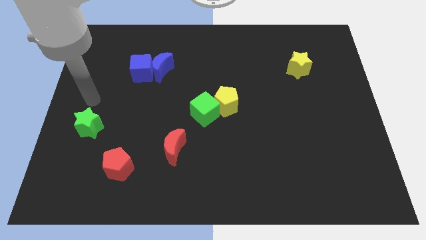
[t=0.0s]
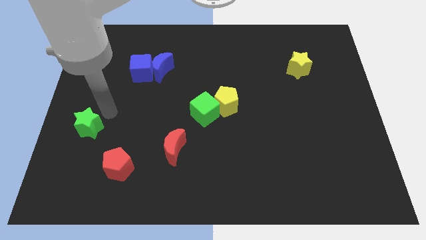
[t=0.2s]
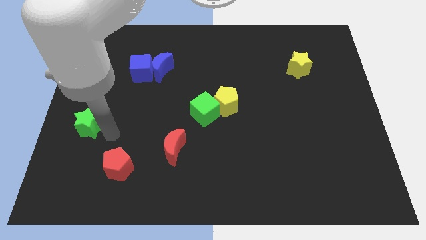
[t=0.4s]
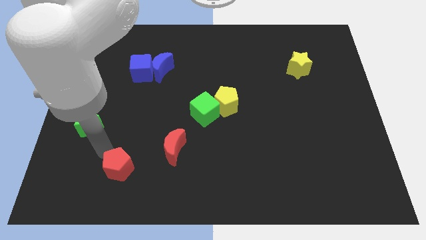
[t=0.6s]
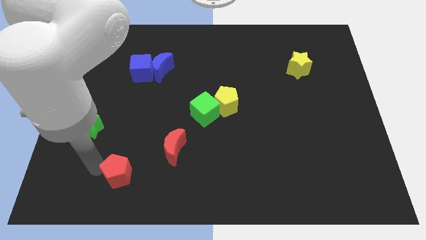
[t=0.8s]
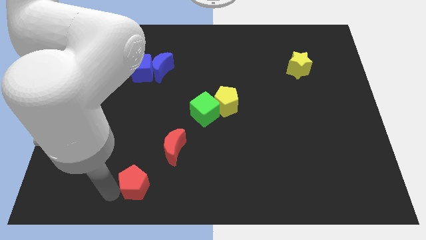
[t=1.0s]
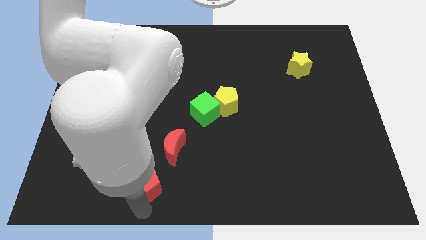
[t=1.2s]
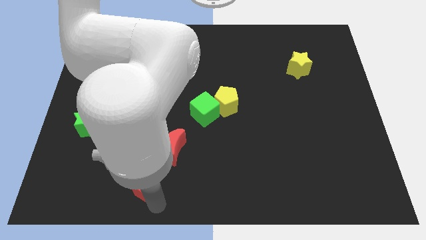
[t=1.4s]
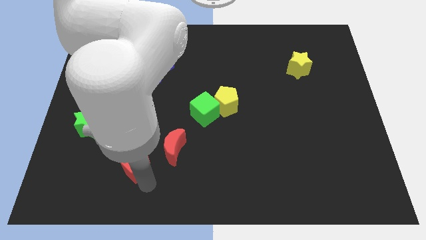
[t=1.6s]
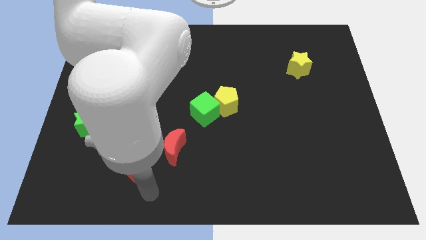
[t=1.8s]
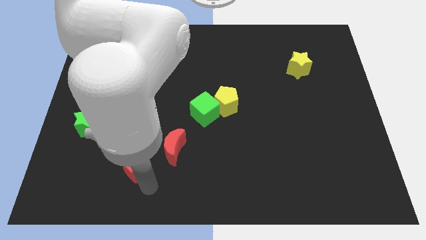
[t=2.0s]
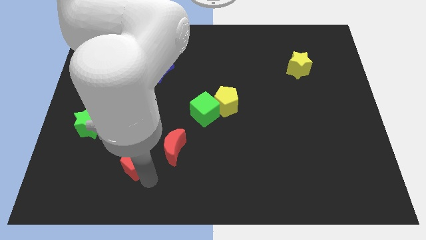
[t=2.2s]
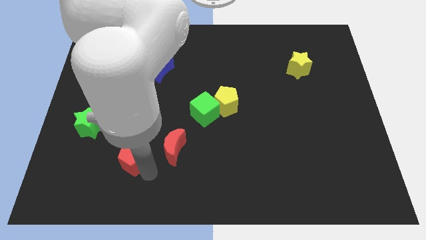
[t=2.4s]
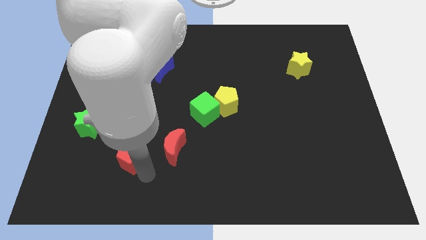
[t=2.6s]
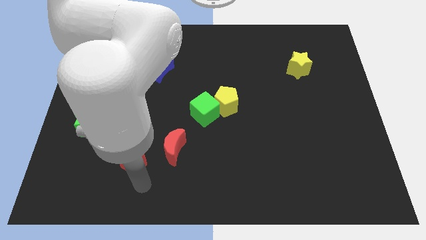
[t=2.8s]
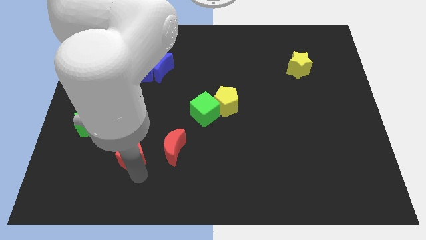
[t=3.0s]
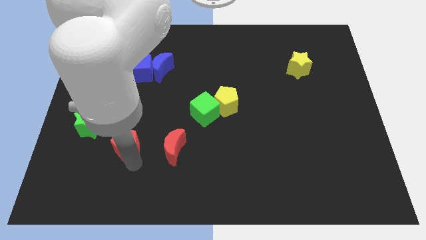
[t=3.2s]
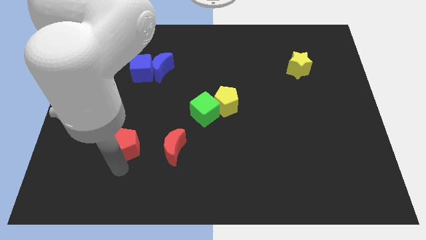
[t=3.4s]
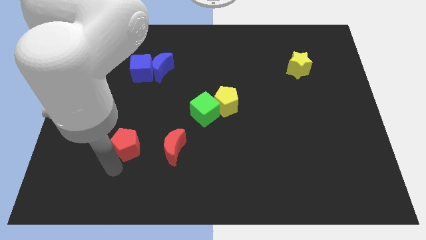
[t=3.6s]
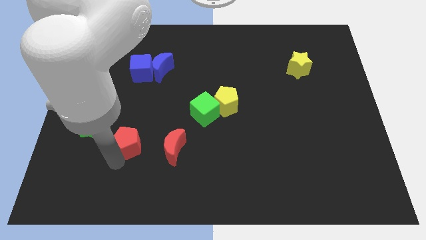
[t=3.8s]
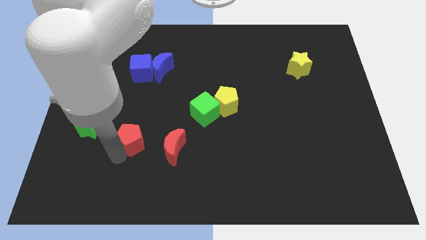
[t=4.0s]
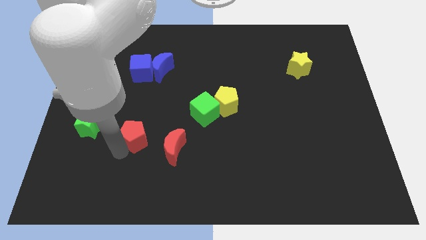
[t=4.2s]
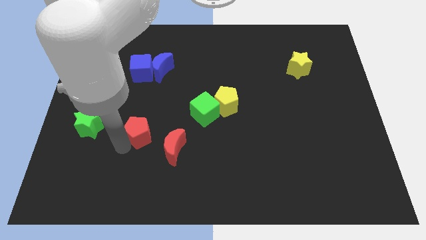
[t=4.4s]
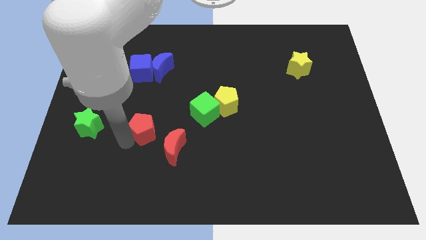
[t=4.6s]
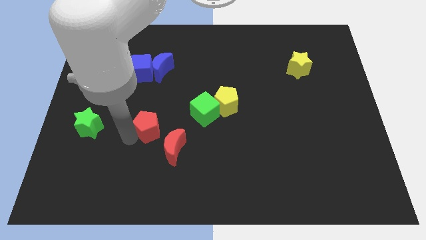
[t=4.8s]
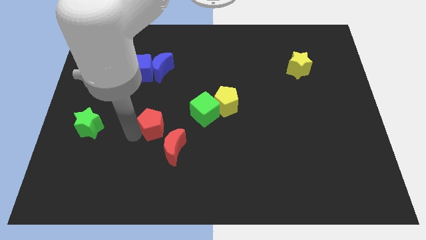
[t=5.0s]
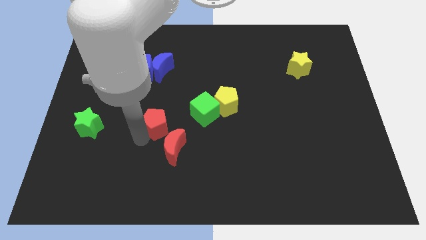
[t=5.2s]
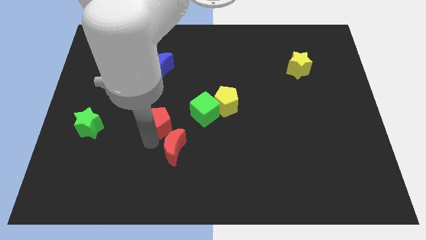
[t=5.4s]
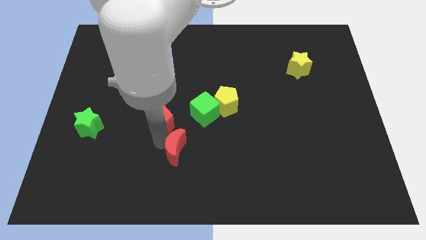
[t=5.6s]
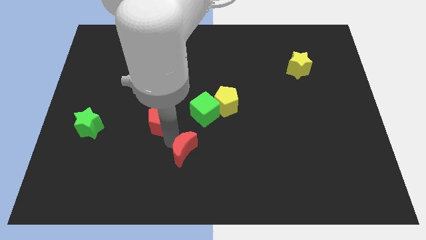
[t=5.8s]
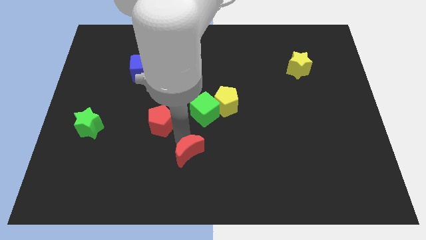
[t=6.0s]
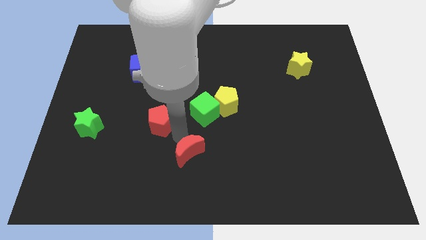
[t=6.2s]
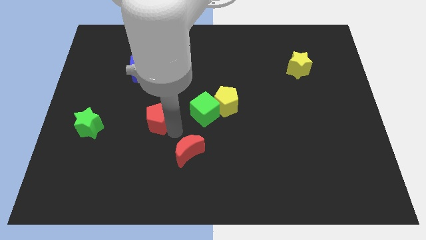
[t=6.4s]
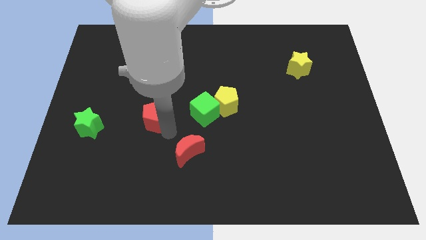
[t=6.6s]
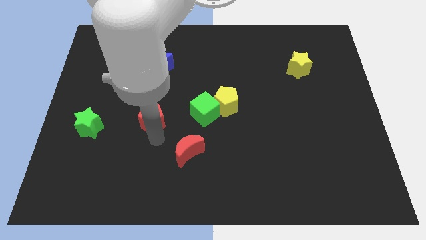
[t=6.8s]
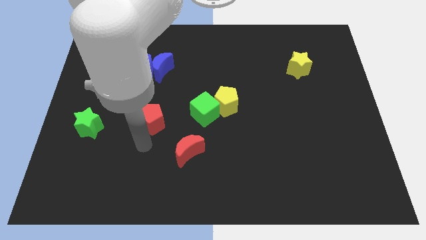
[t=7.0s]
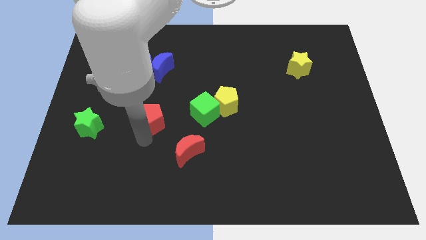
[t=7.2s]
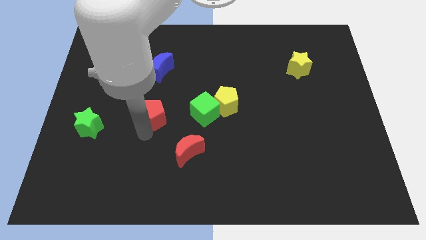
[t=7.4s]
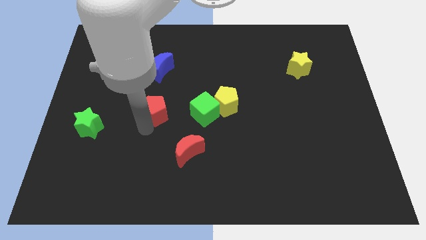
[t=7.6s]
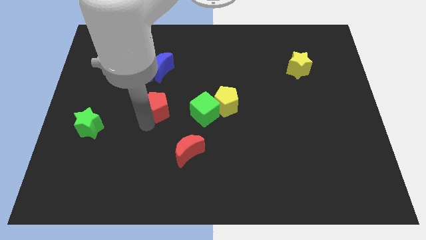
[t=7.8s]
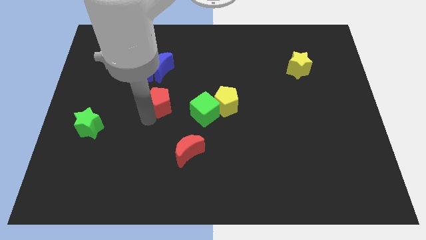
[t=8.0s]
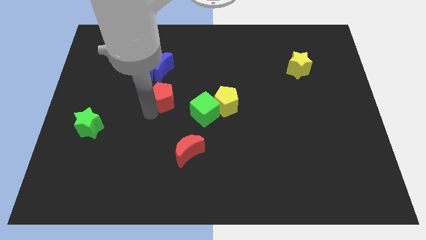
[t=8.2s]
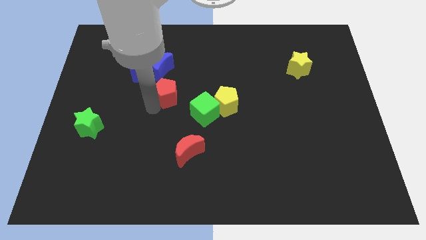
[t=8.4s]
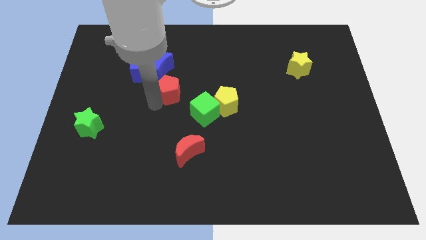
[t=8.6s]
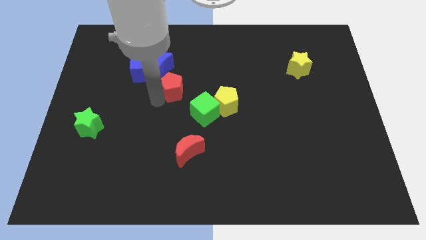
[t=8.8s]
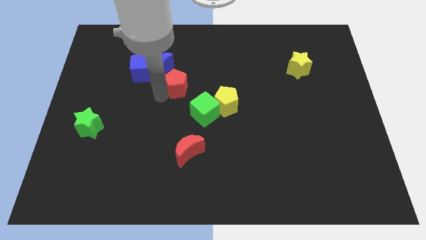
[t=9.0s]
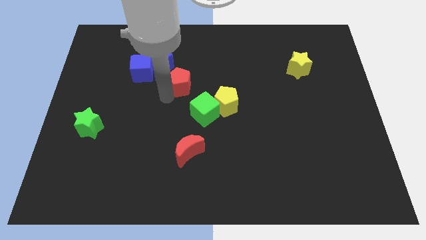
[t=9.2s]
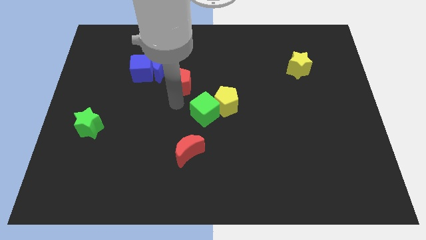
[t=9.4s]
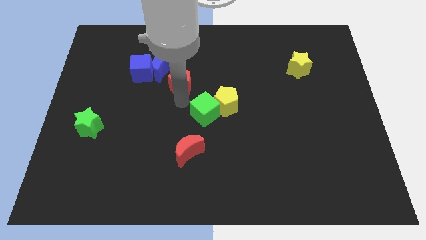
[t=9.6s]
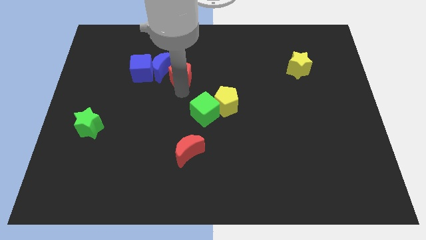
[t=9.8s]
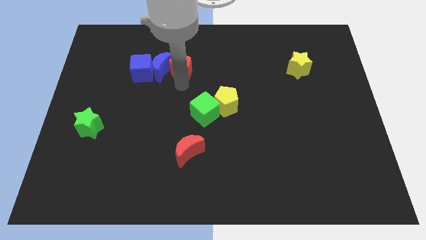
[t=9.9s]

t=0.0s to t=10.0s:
put the red pentagon to the top right side of the blue moon

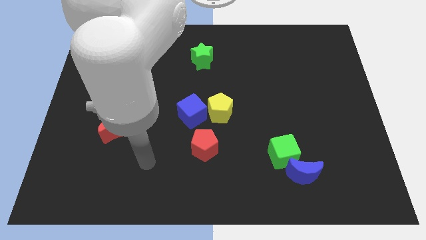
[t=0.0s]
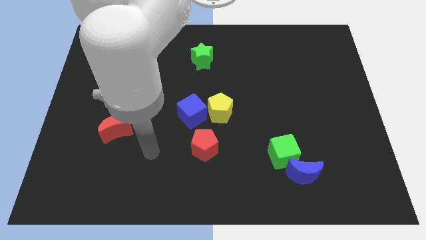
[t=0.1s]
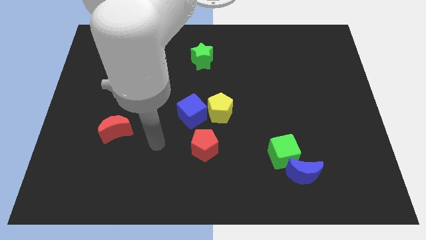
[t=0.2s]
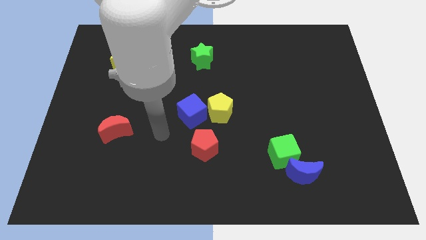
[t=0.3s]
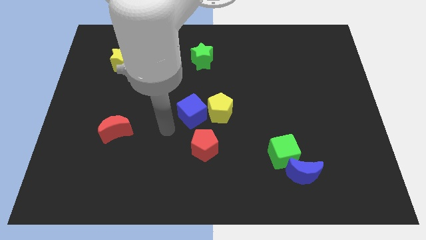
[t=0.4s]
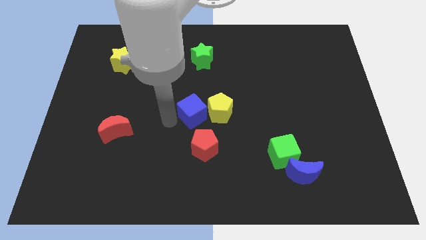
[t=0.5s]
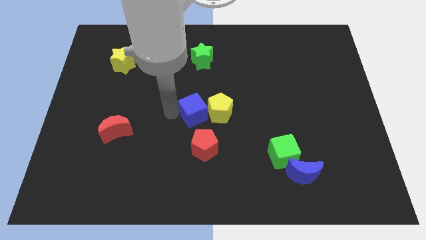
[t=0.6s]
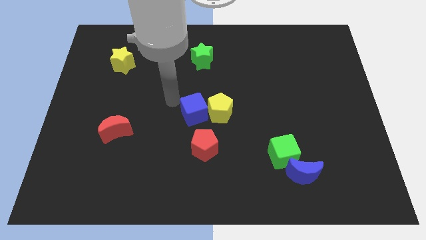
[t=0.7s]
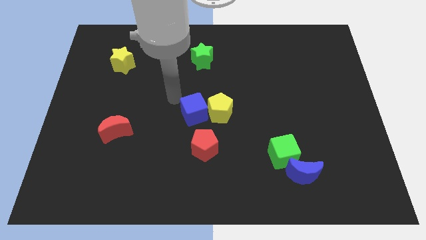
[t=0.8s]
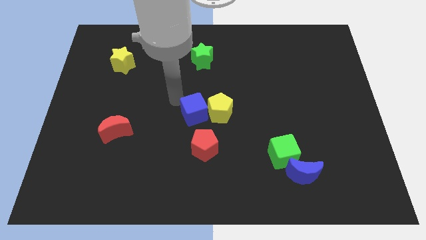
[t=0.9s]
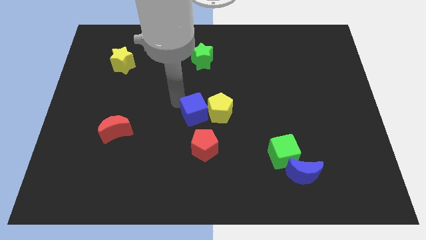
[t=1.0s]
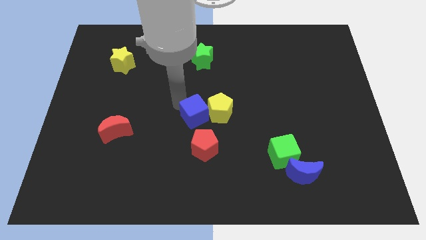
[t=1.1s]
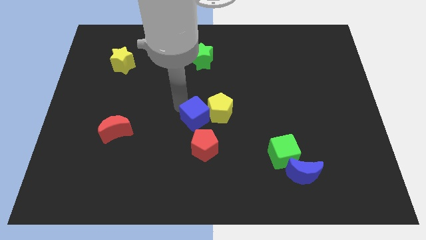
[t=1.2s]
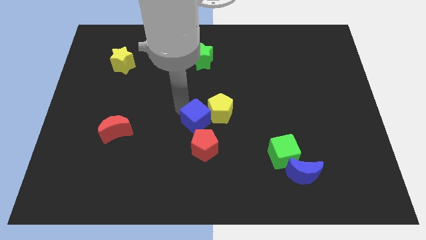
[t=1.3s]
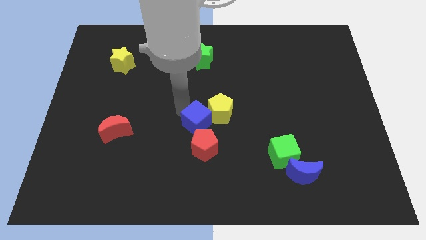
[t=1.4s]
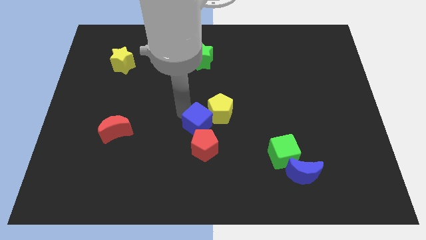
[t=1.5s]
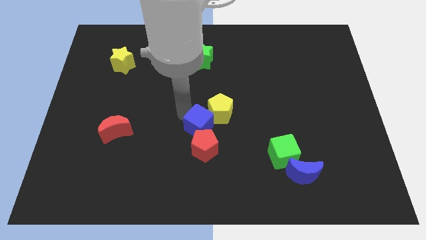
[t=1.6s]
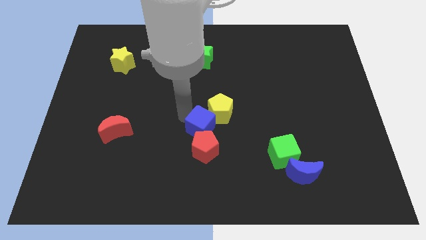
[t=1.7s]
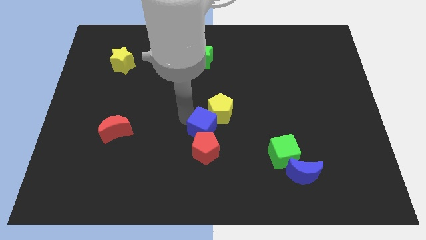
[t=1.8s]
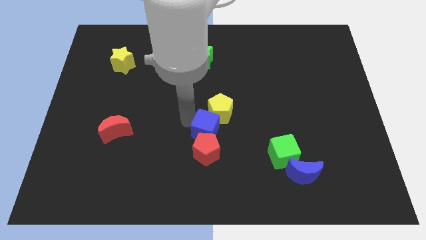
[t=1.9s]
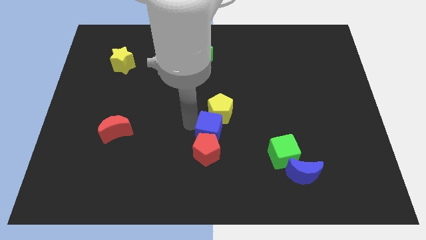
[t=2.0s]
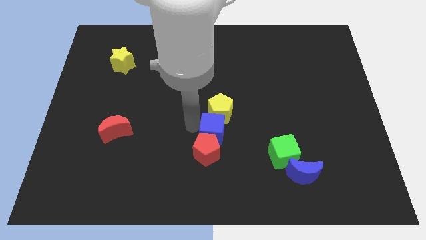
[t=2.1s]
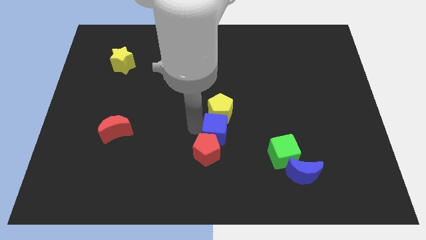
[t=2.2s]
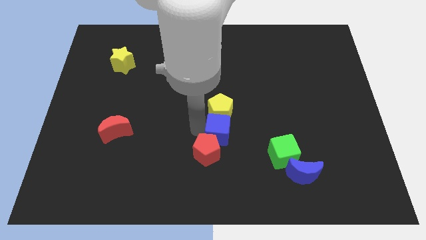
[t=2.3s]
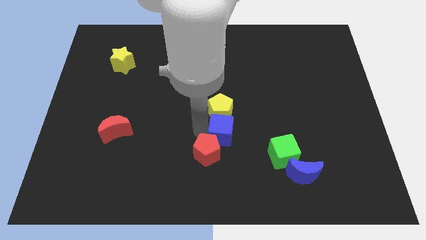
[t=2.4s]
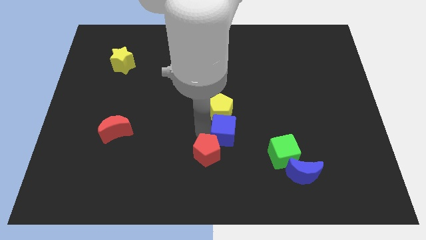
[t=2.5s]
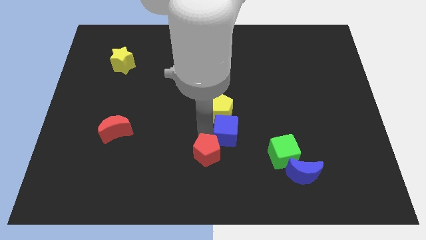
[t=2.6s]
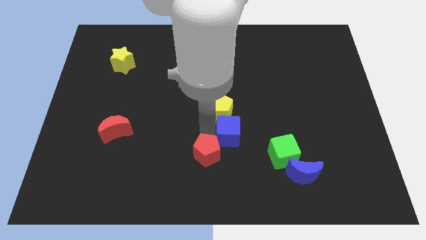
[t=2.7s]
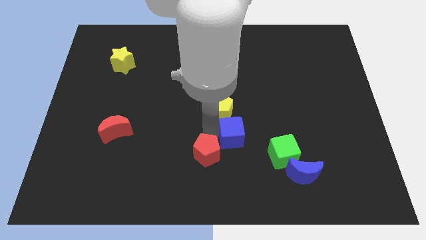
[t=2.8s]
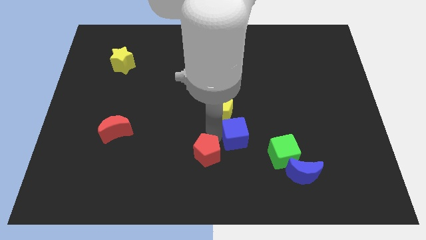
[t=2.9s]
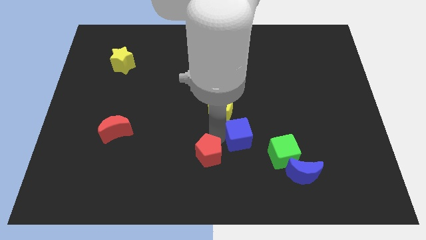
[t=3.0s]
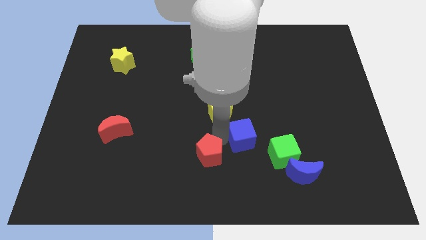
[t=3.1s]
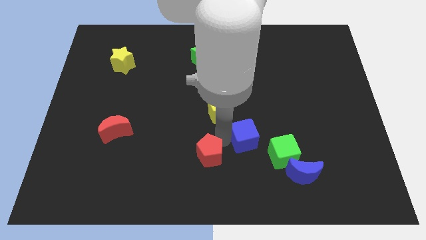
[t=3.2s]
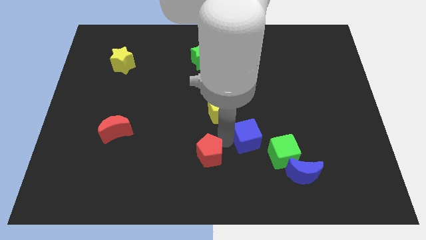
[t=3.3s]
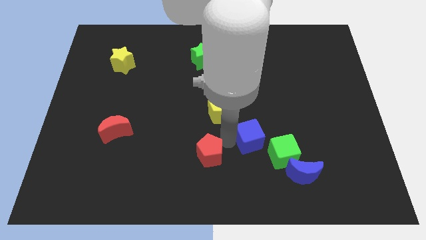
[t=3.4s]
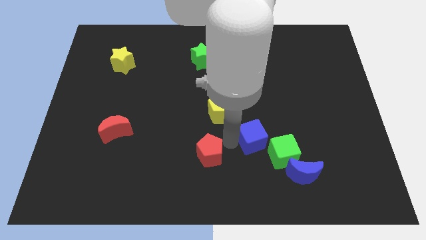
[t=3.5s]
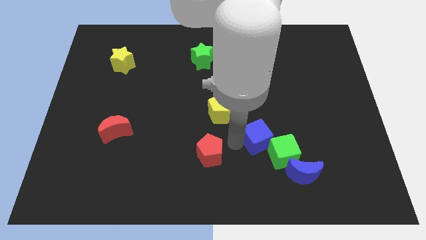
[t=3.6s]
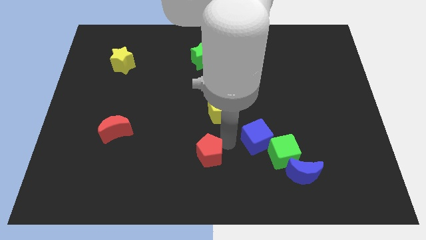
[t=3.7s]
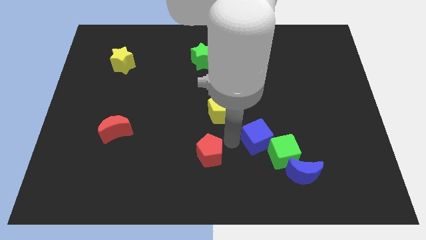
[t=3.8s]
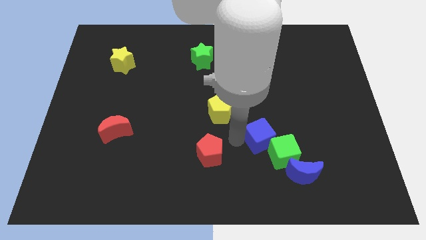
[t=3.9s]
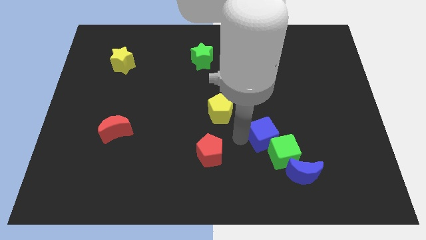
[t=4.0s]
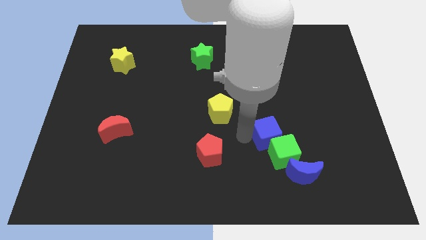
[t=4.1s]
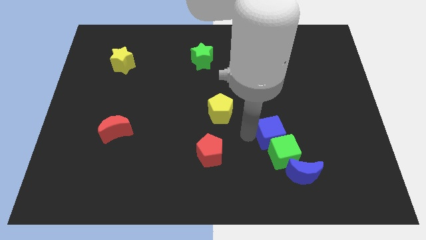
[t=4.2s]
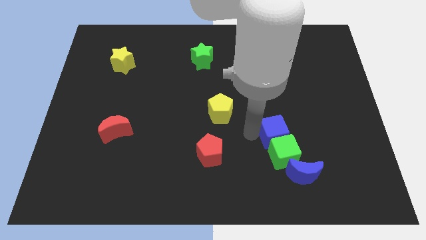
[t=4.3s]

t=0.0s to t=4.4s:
slide the blue cube diagonally up and to the right of the green cube
